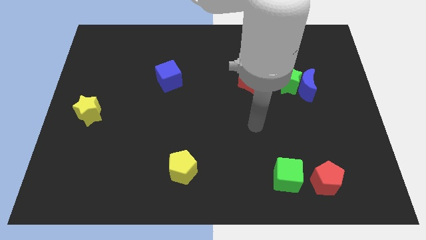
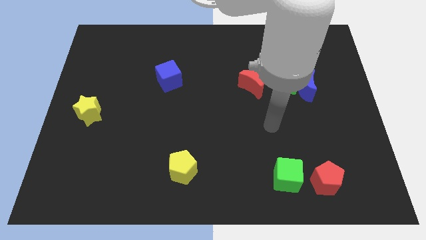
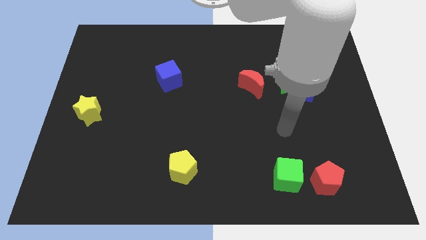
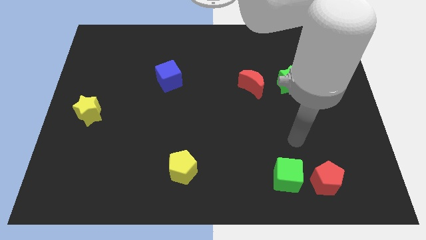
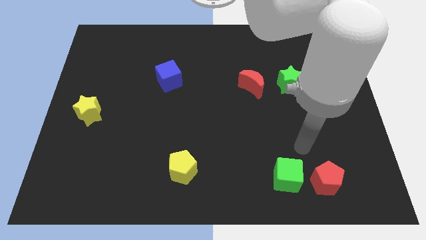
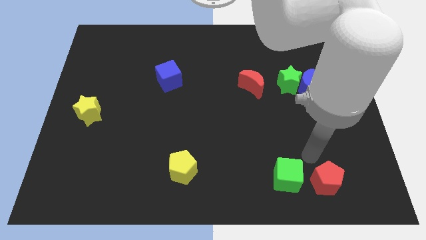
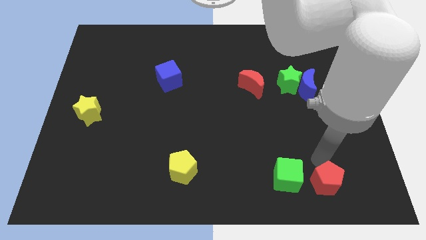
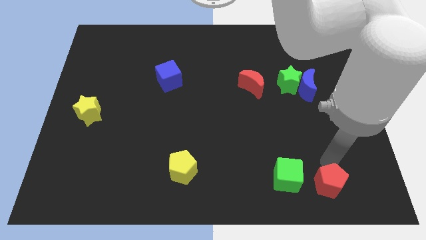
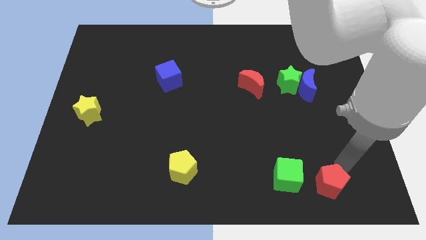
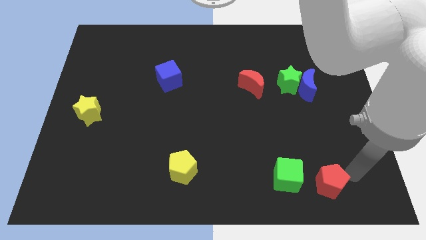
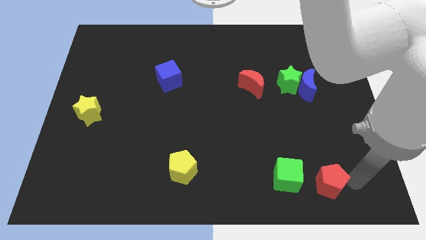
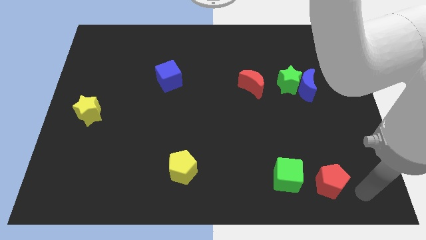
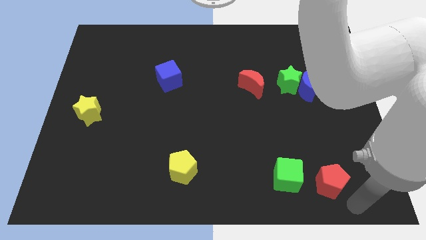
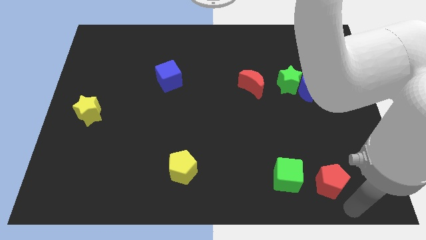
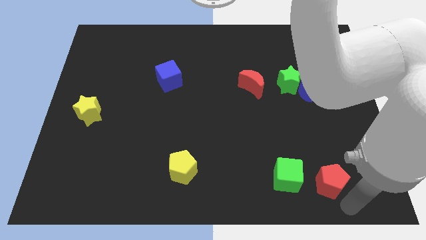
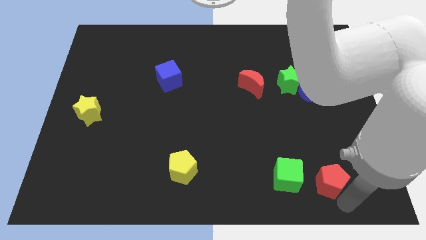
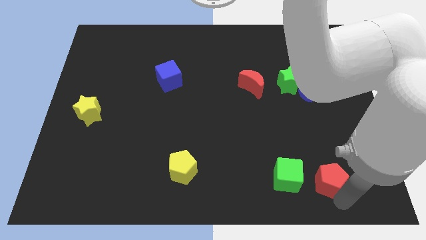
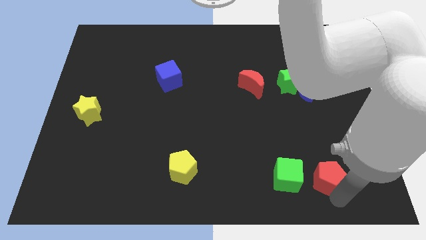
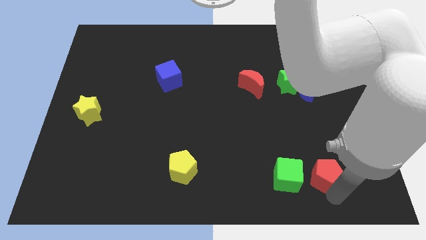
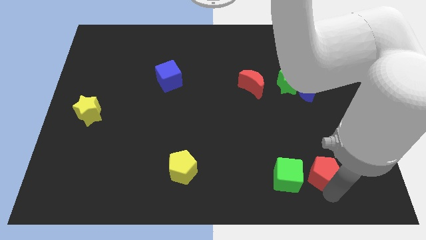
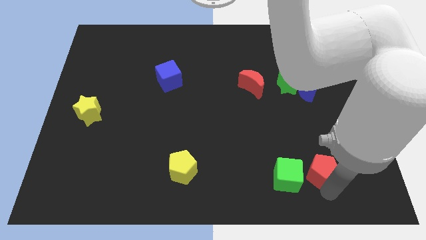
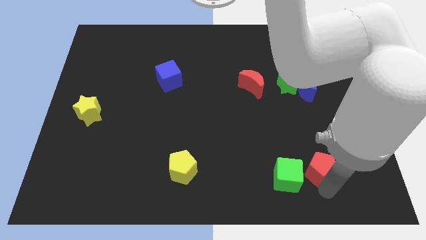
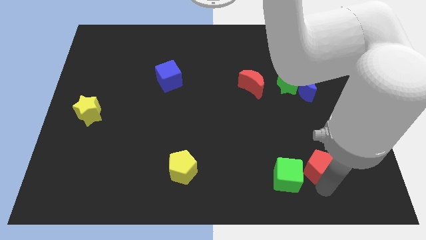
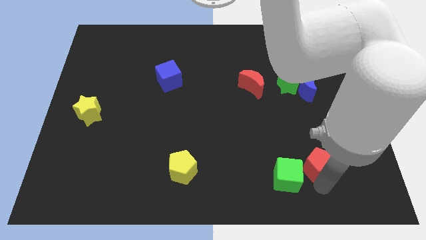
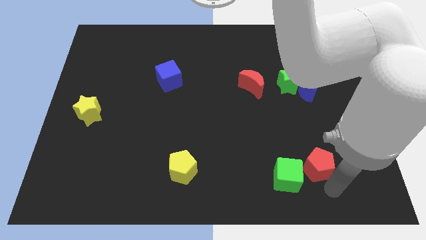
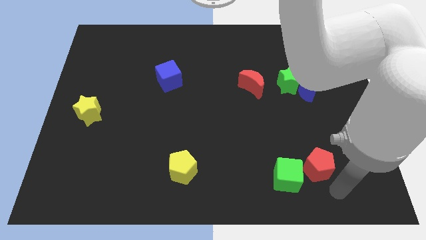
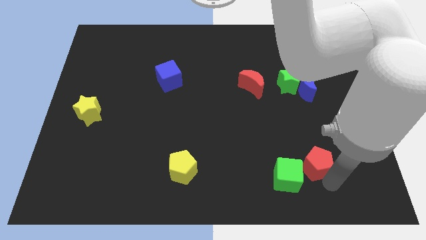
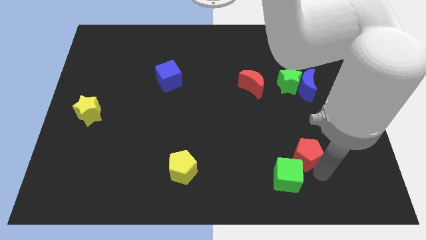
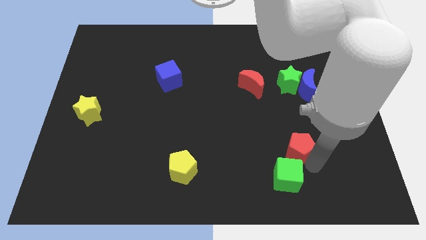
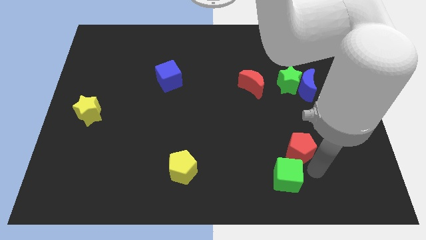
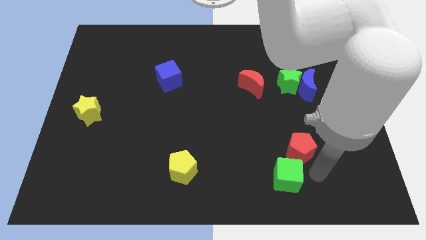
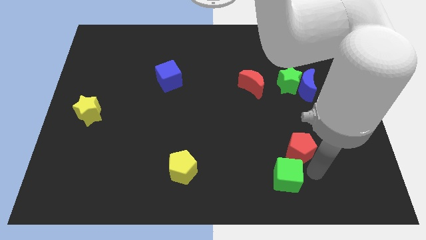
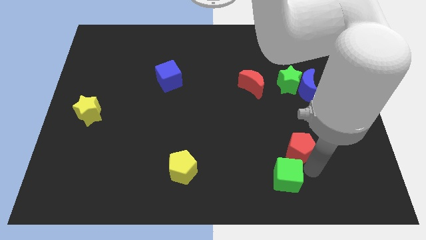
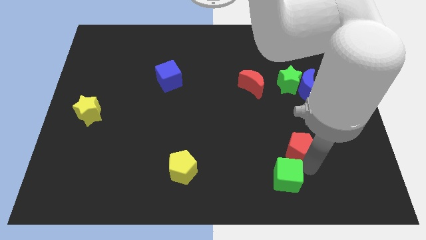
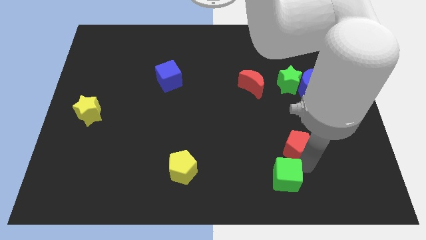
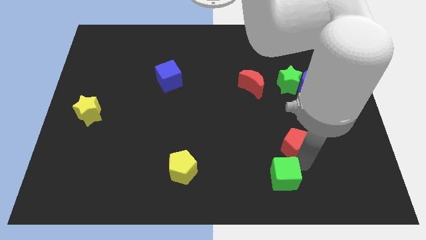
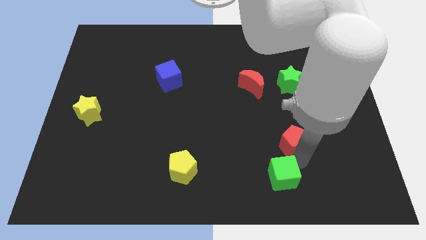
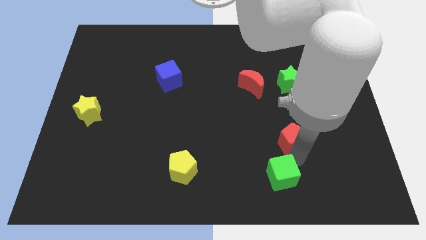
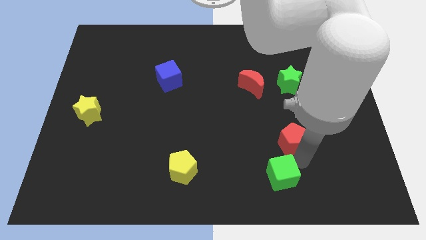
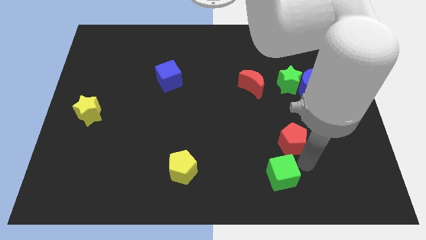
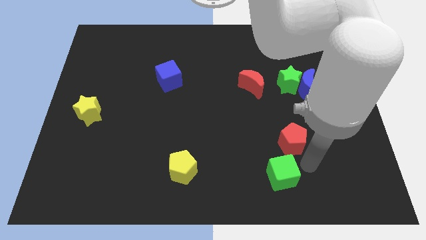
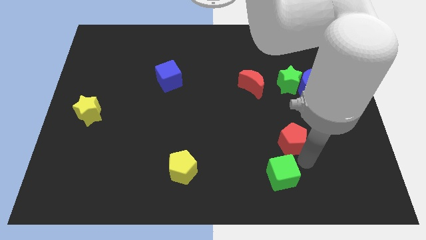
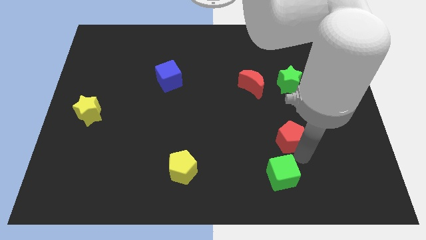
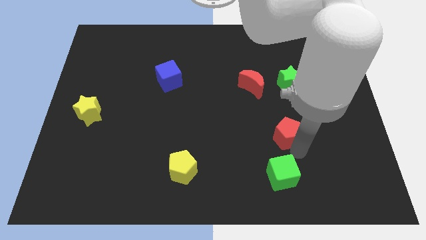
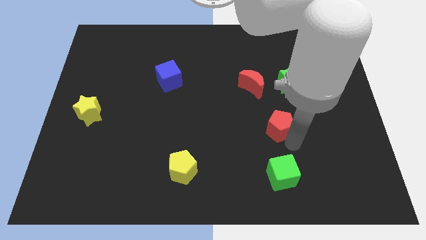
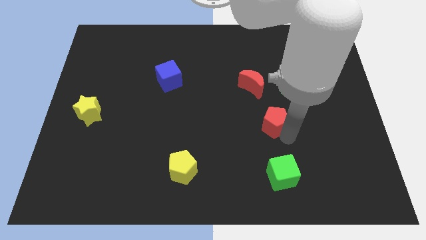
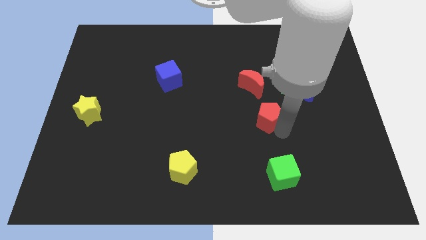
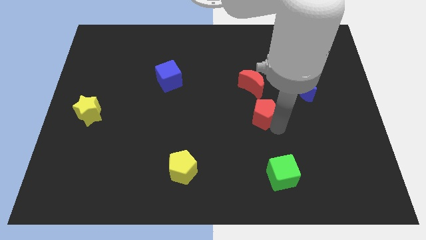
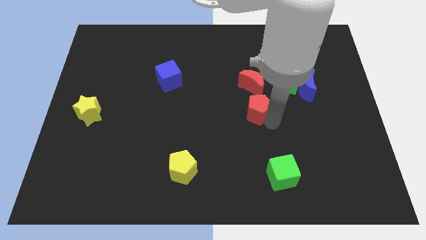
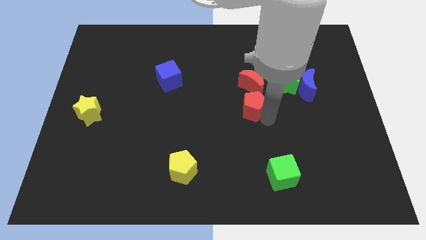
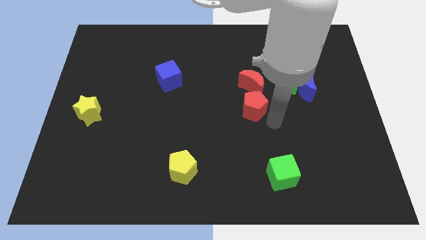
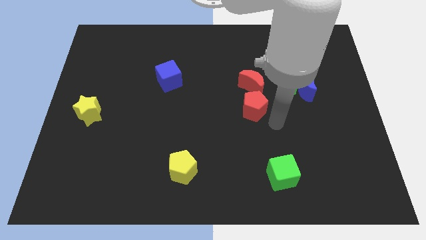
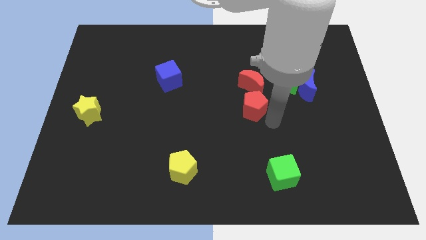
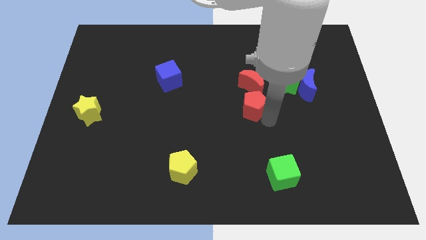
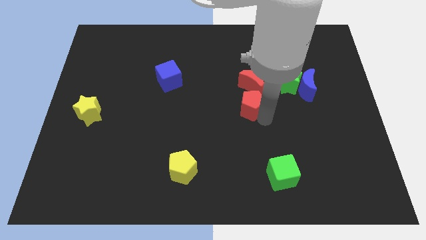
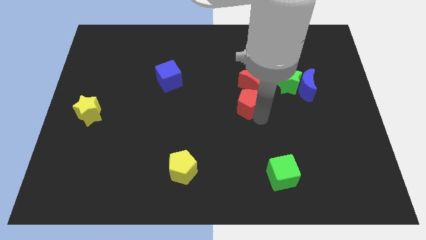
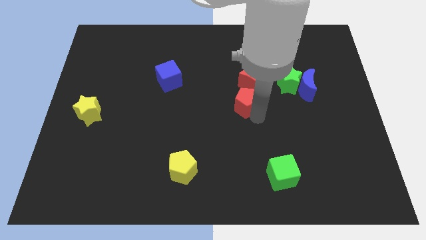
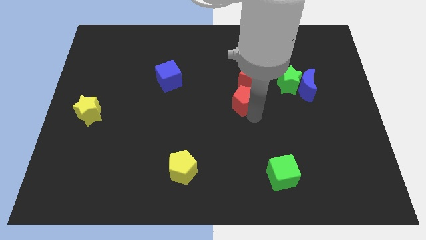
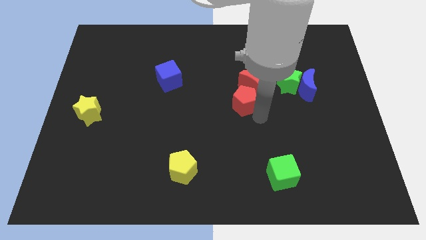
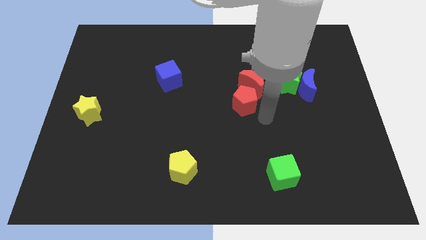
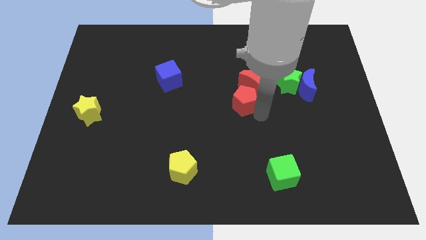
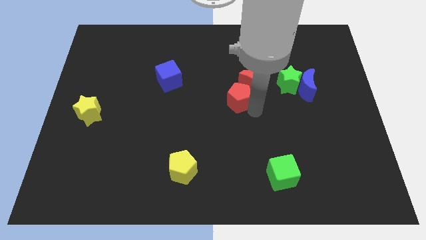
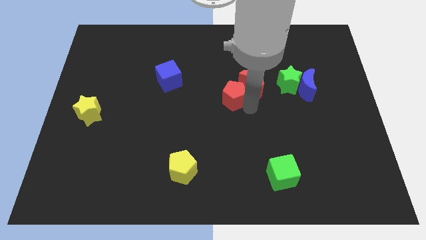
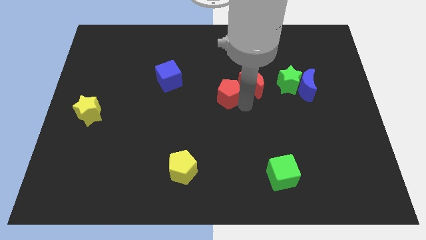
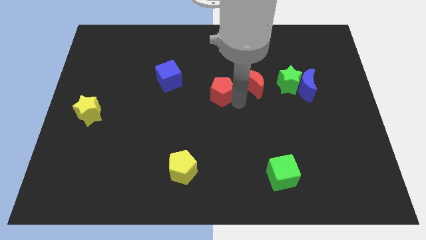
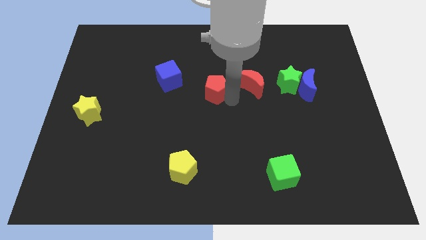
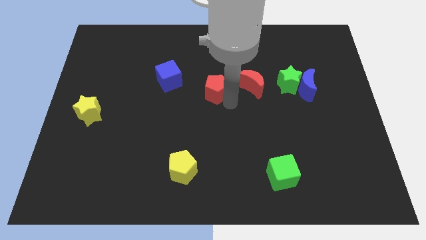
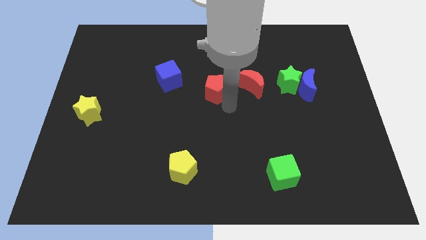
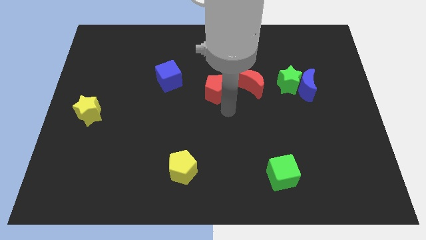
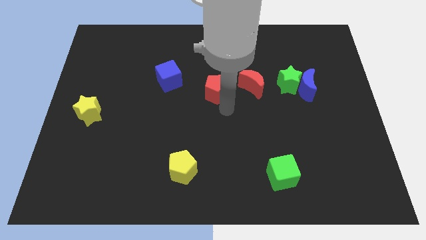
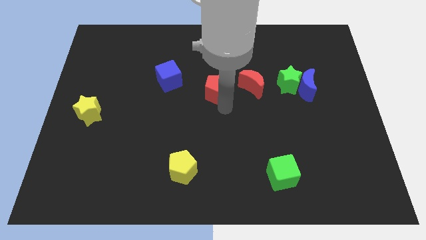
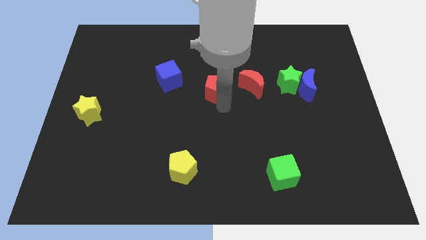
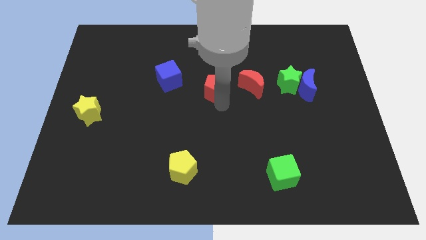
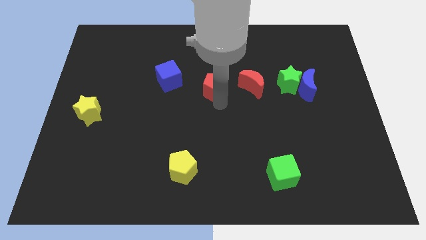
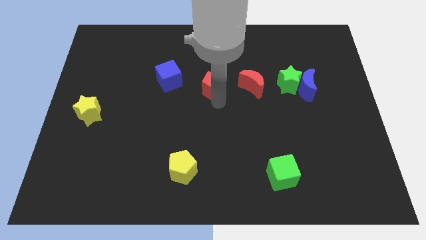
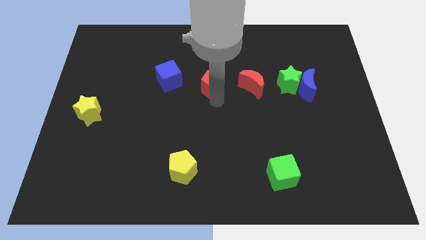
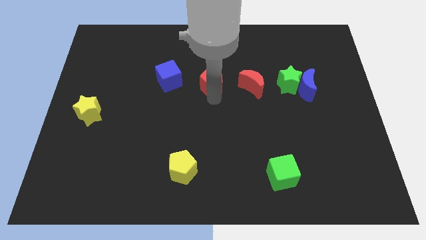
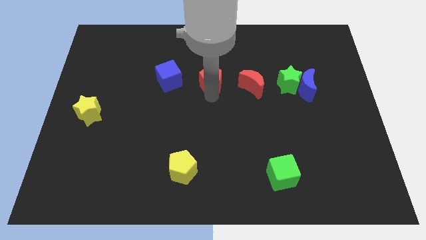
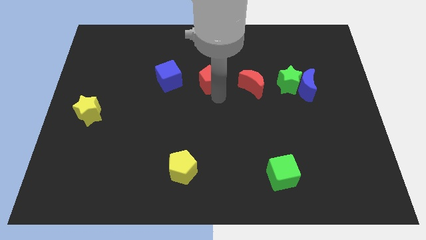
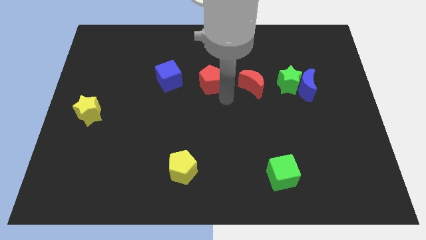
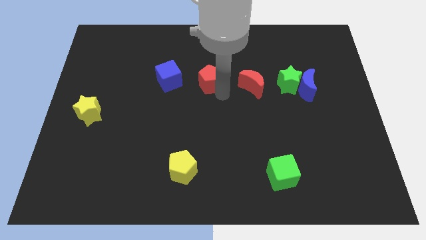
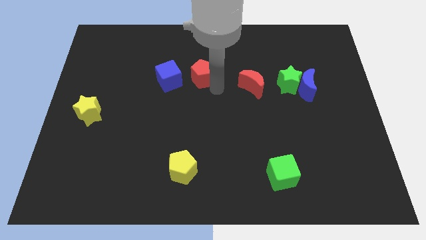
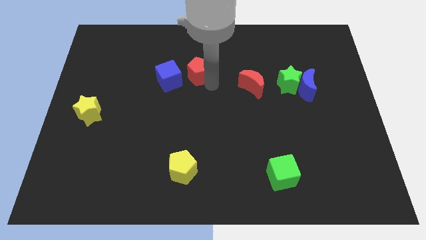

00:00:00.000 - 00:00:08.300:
slide the red pentagon diagonally up and to the right of the blue cube
